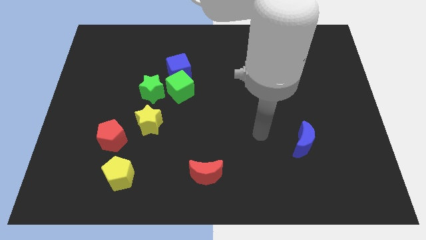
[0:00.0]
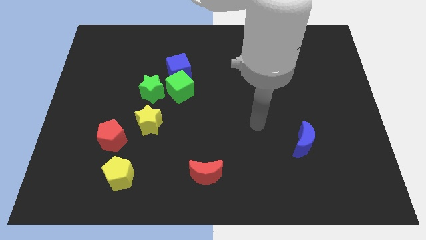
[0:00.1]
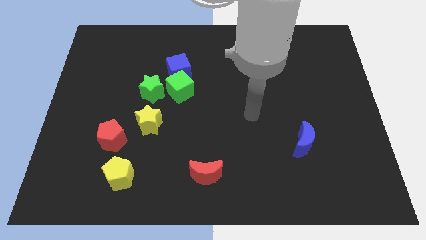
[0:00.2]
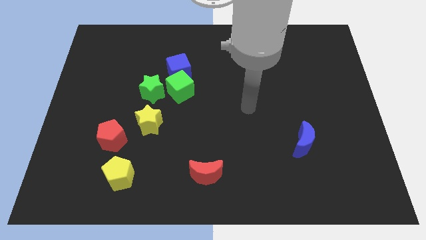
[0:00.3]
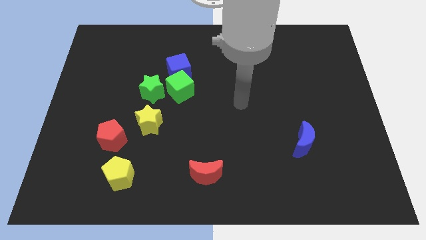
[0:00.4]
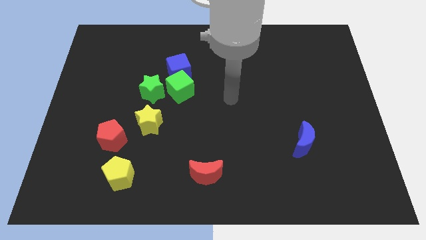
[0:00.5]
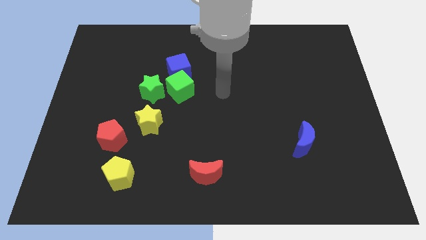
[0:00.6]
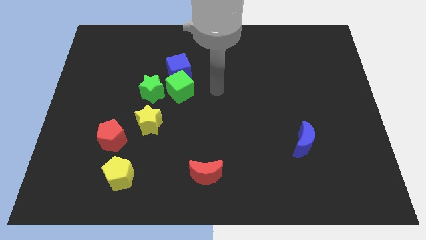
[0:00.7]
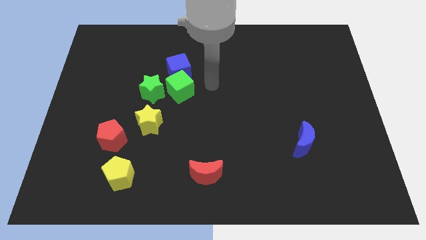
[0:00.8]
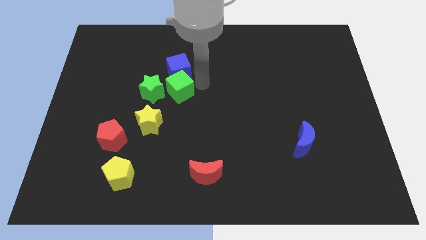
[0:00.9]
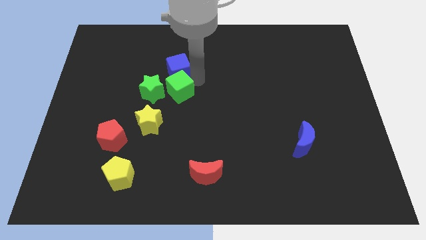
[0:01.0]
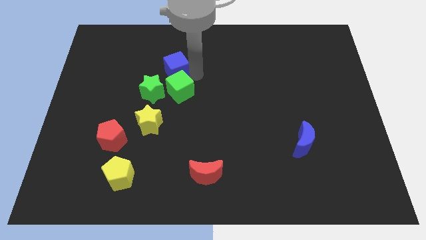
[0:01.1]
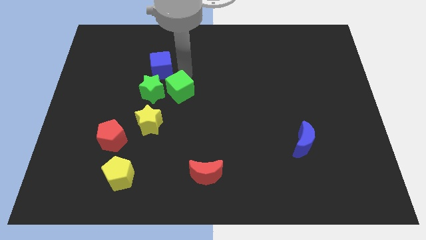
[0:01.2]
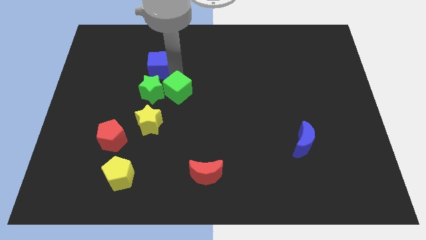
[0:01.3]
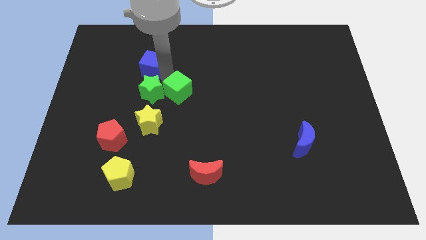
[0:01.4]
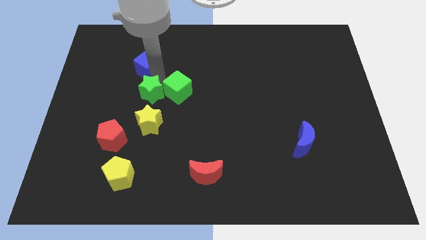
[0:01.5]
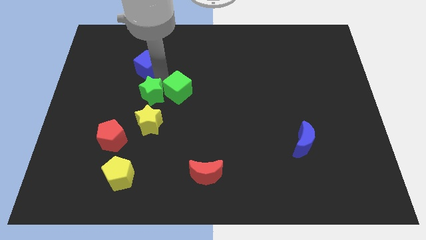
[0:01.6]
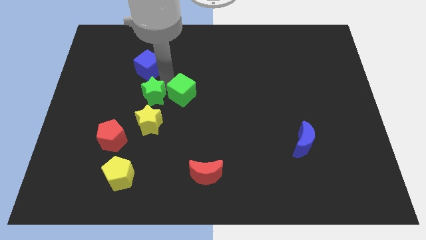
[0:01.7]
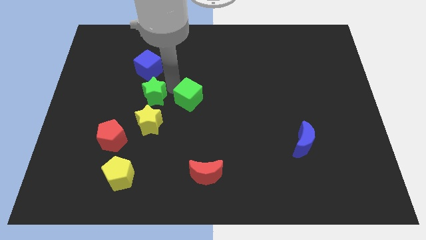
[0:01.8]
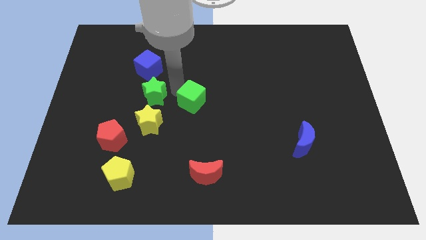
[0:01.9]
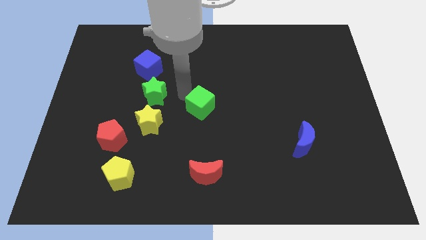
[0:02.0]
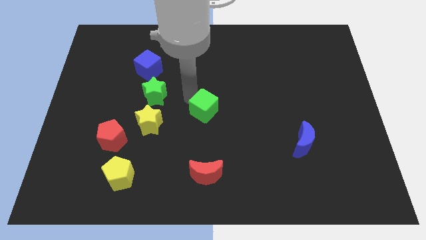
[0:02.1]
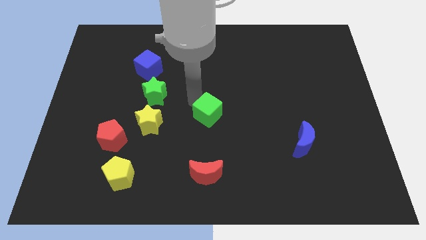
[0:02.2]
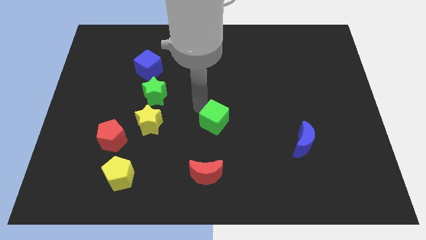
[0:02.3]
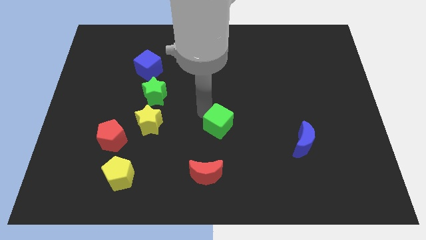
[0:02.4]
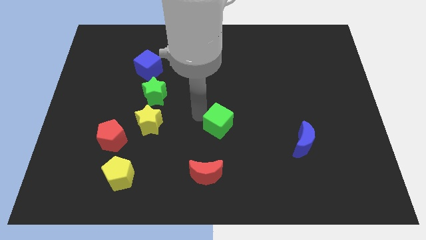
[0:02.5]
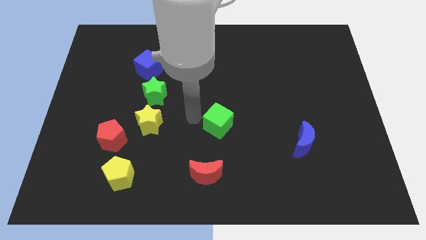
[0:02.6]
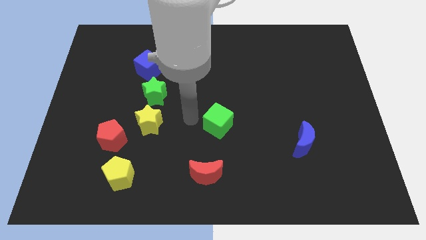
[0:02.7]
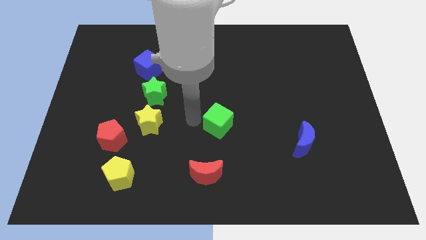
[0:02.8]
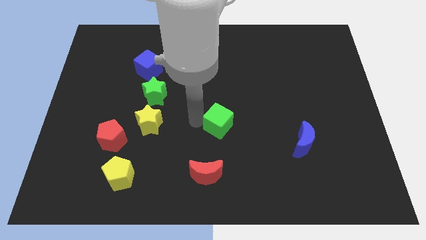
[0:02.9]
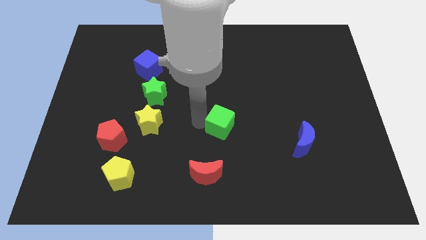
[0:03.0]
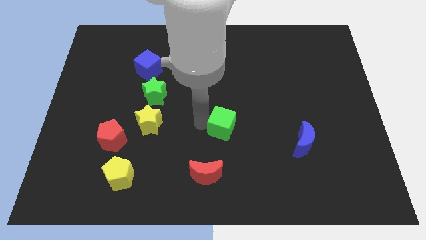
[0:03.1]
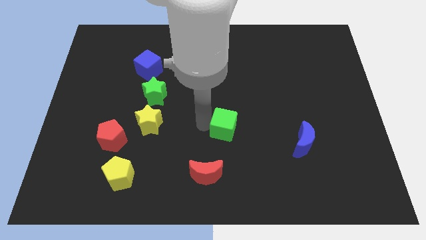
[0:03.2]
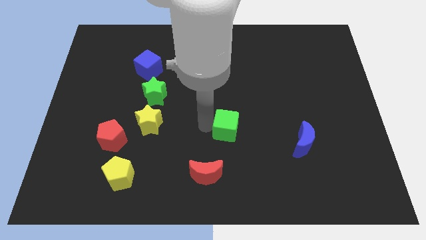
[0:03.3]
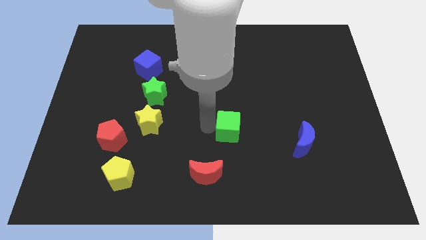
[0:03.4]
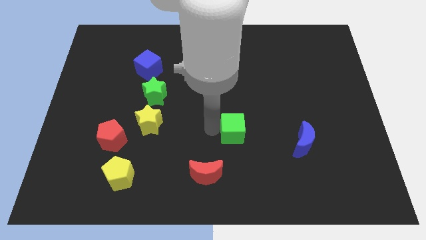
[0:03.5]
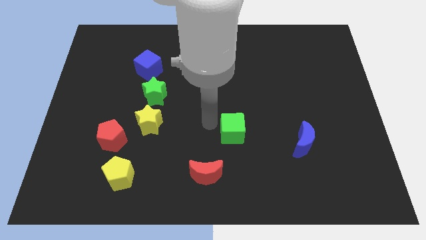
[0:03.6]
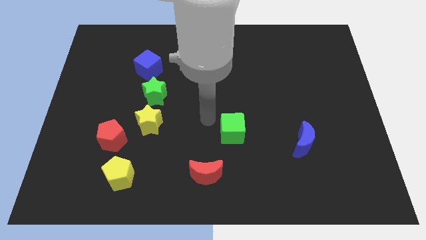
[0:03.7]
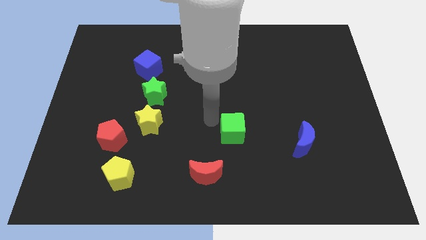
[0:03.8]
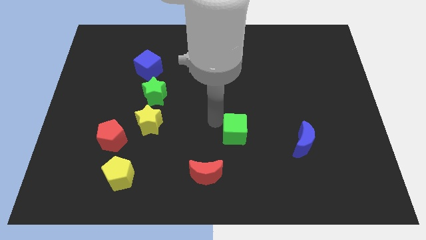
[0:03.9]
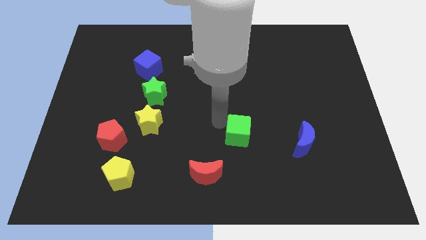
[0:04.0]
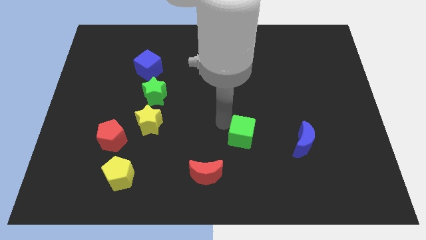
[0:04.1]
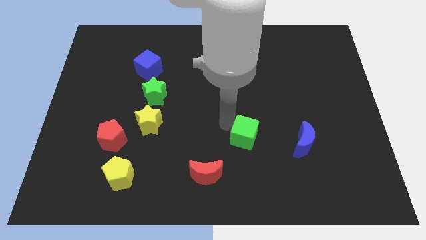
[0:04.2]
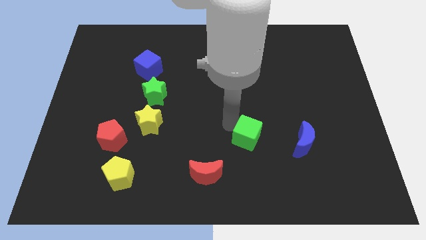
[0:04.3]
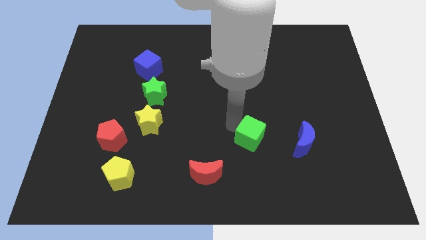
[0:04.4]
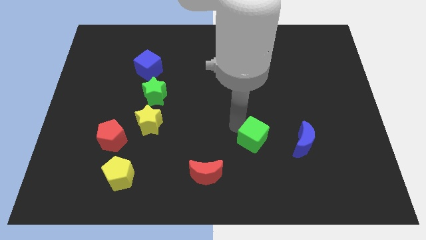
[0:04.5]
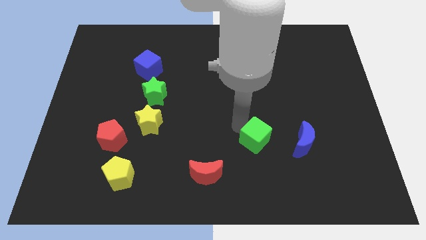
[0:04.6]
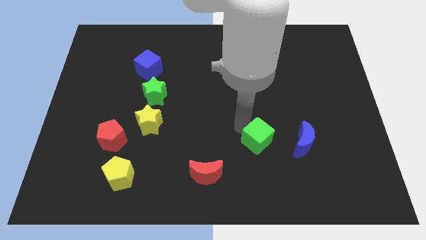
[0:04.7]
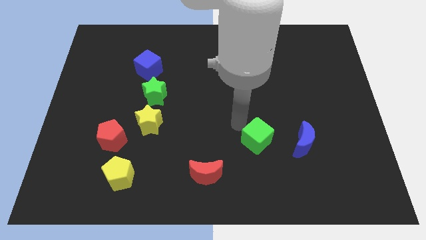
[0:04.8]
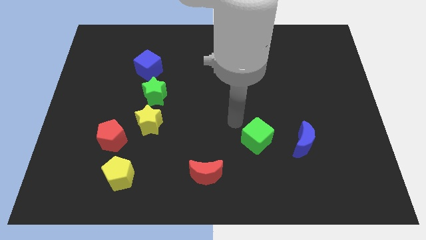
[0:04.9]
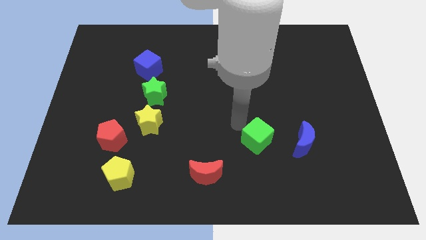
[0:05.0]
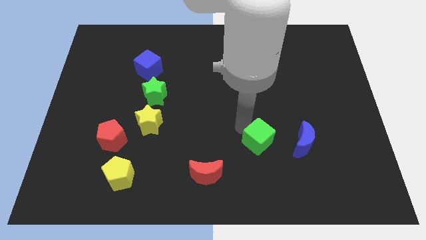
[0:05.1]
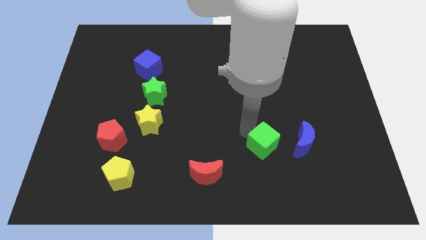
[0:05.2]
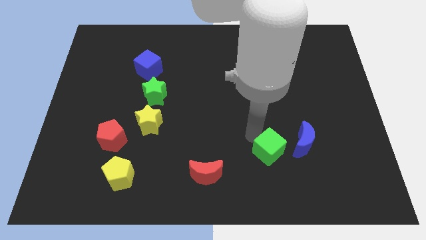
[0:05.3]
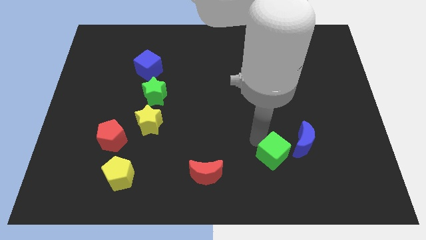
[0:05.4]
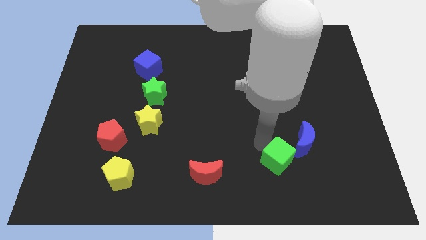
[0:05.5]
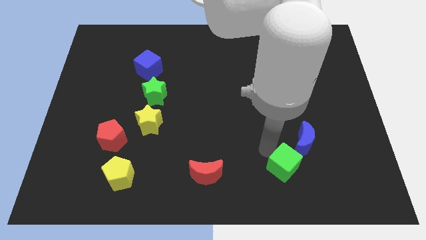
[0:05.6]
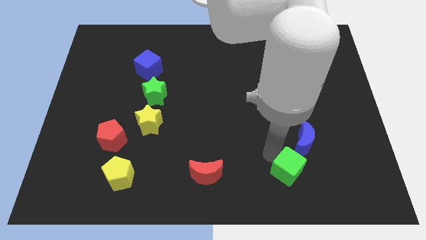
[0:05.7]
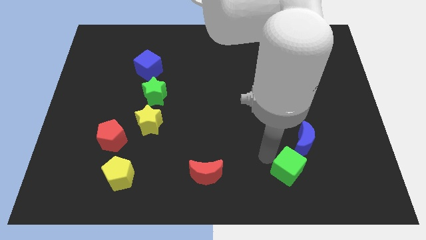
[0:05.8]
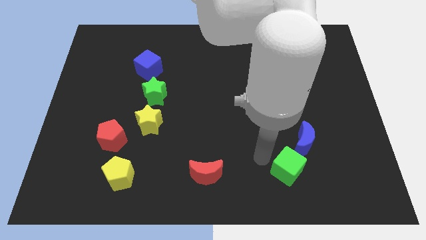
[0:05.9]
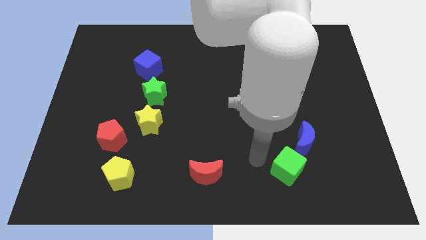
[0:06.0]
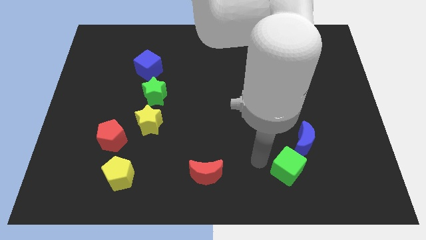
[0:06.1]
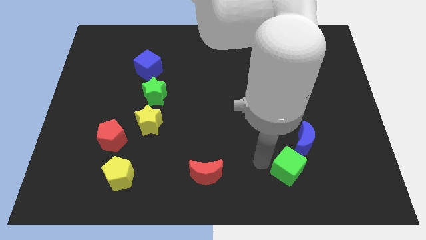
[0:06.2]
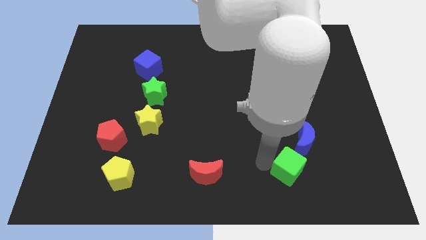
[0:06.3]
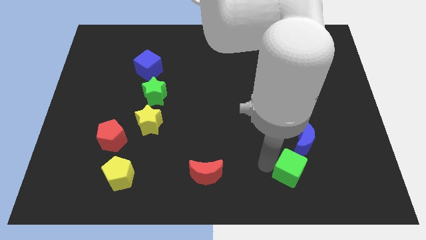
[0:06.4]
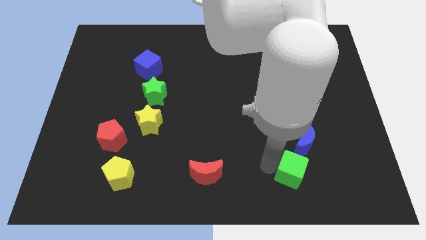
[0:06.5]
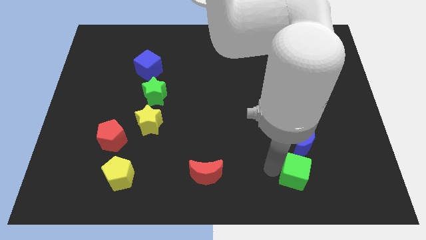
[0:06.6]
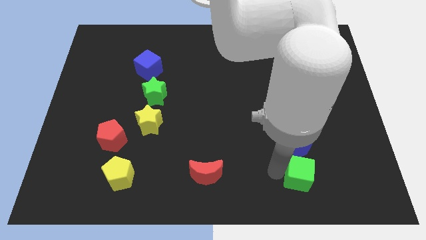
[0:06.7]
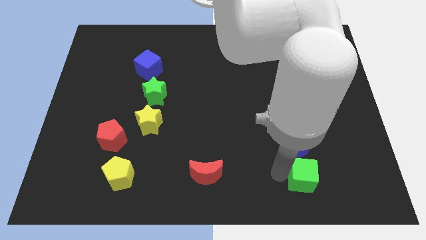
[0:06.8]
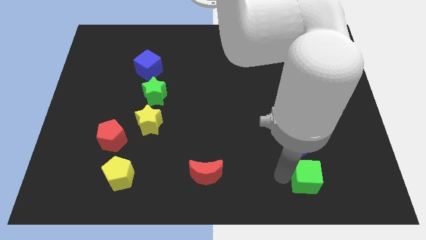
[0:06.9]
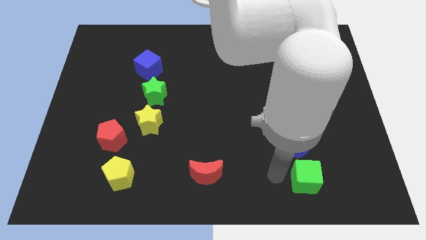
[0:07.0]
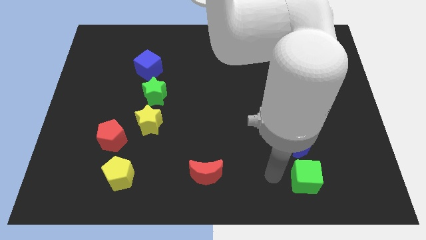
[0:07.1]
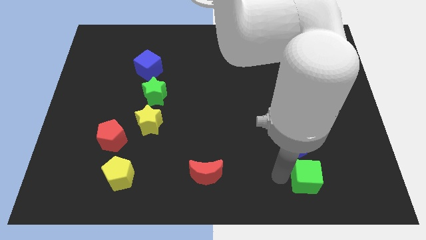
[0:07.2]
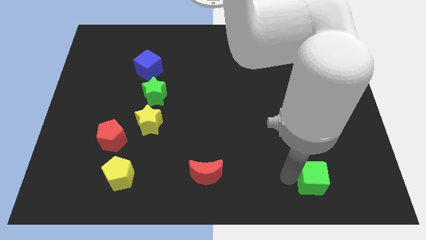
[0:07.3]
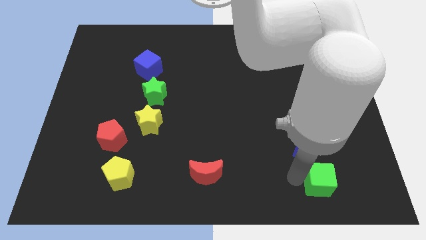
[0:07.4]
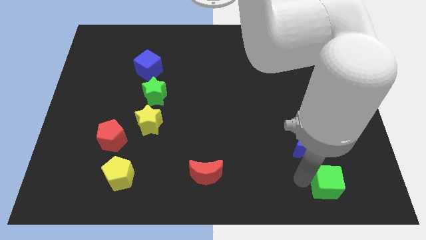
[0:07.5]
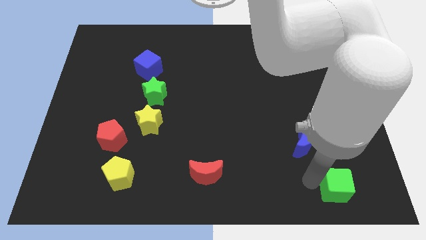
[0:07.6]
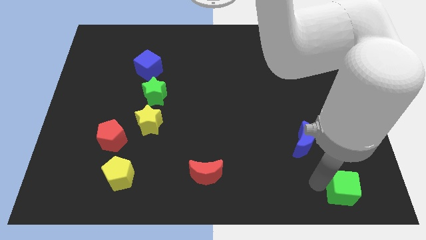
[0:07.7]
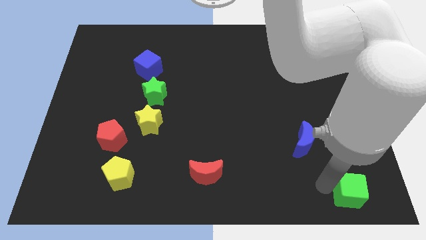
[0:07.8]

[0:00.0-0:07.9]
put the green cube to the lower right corner
